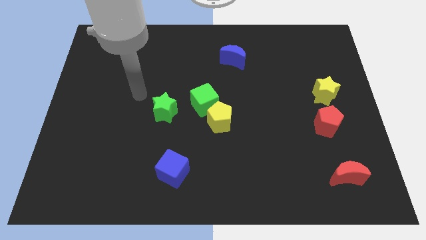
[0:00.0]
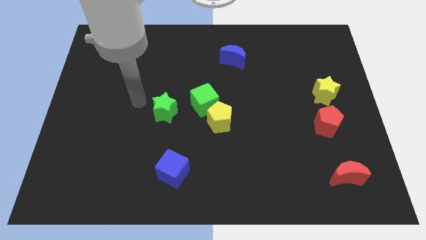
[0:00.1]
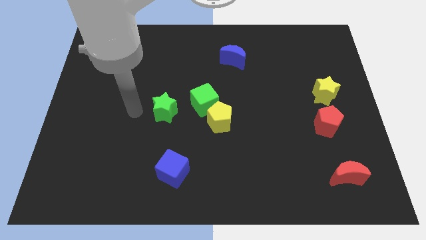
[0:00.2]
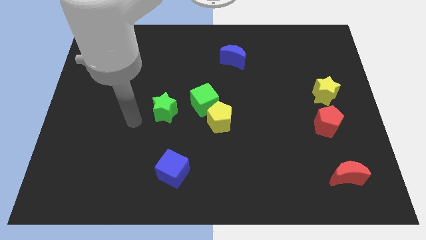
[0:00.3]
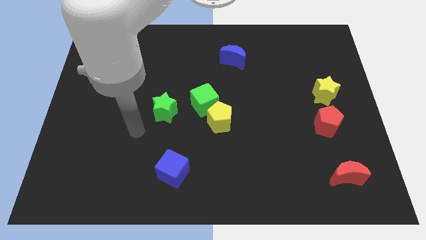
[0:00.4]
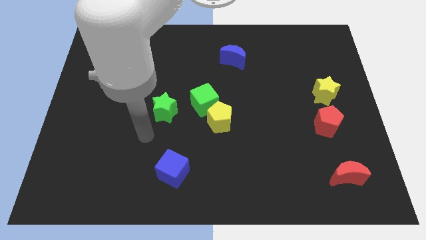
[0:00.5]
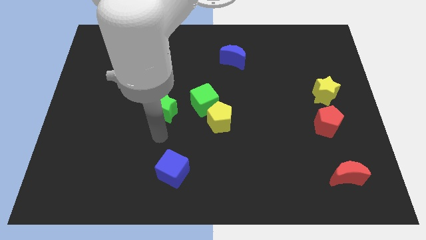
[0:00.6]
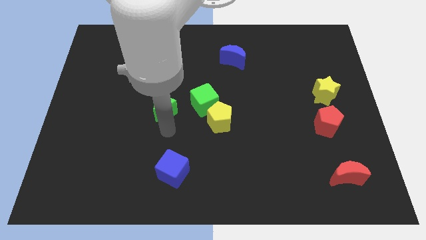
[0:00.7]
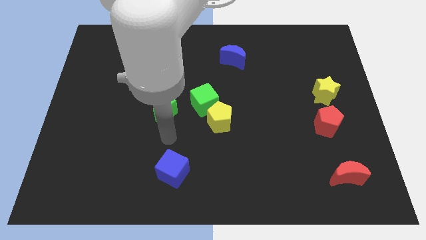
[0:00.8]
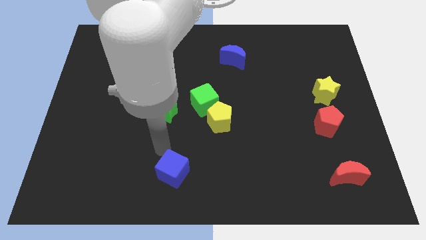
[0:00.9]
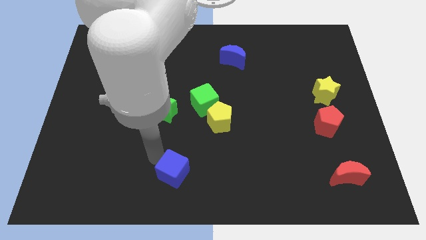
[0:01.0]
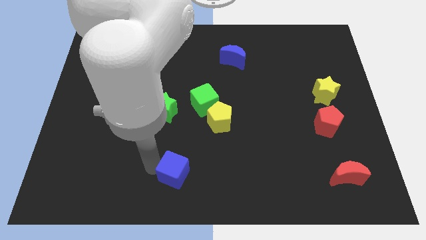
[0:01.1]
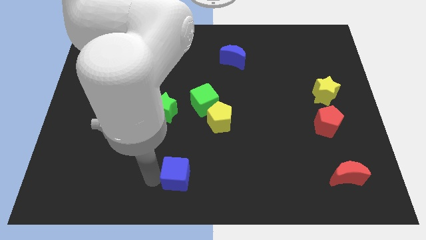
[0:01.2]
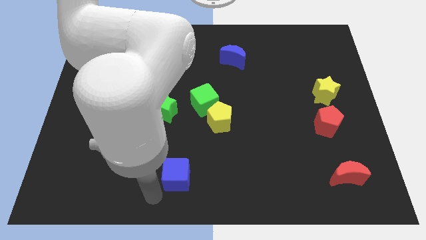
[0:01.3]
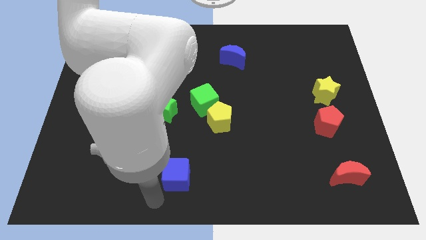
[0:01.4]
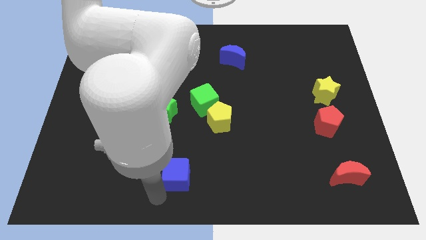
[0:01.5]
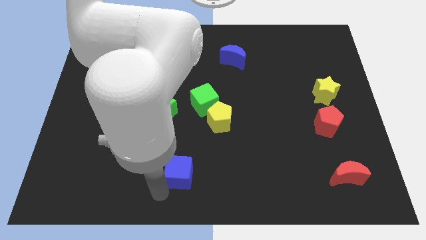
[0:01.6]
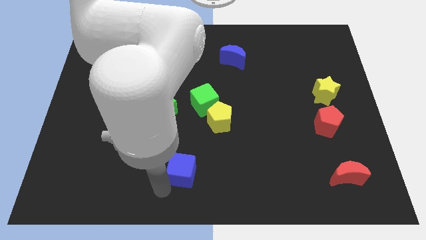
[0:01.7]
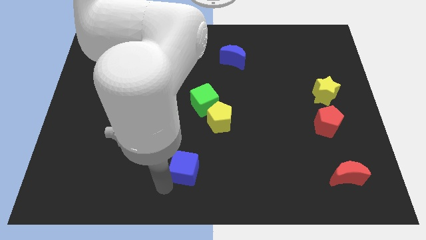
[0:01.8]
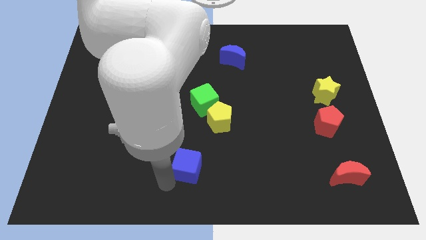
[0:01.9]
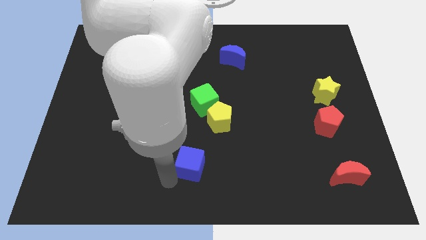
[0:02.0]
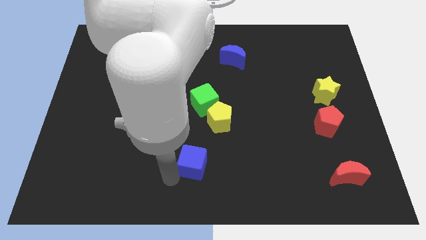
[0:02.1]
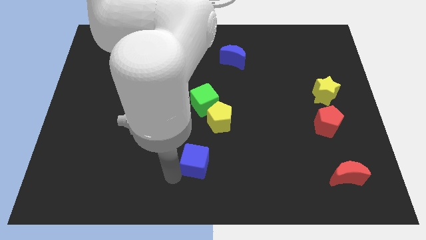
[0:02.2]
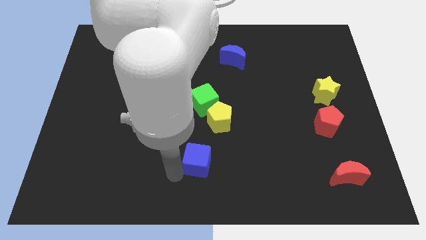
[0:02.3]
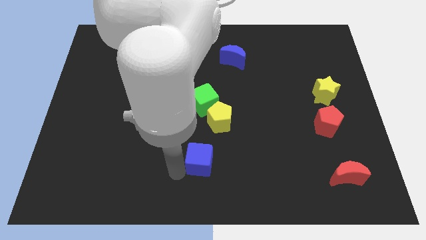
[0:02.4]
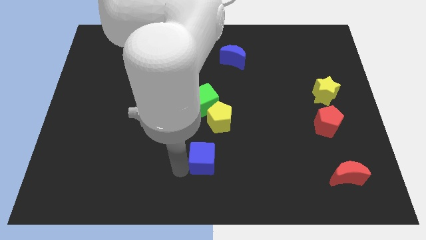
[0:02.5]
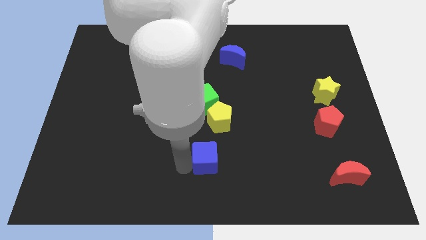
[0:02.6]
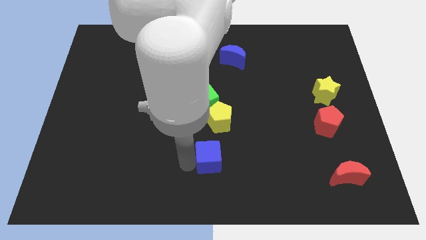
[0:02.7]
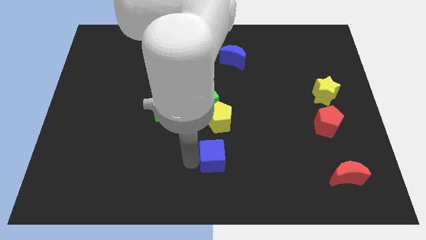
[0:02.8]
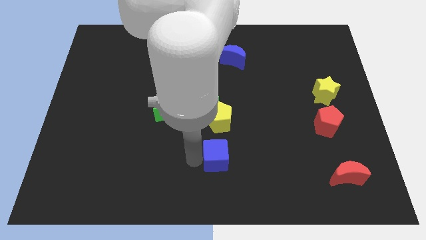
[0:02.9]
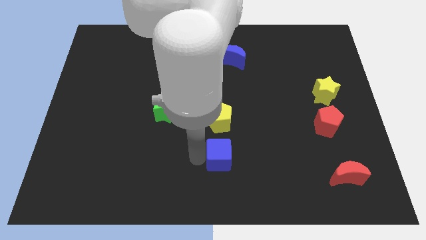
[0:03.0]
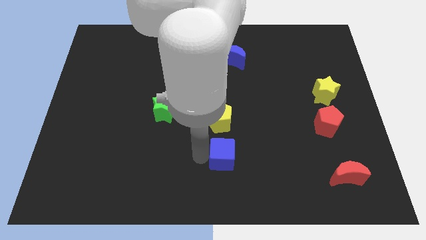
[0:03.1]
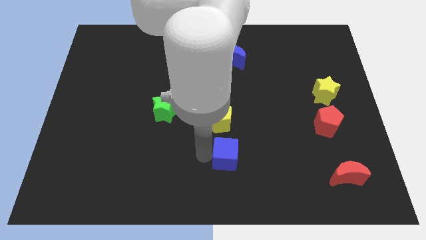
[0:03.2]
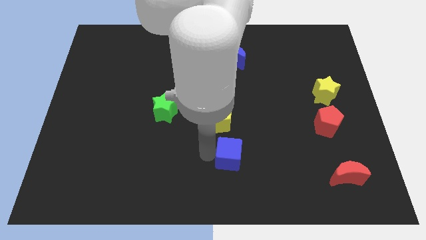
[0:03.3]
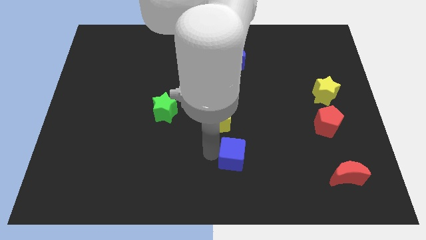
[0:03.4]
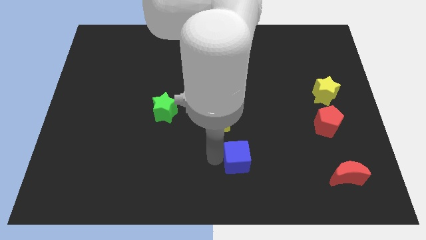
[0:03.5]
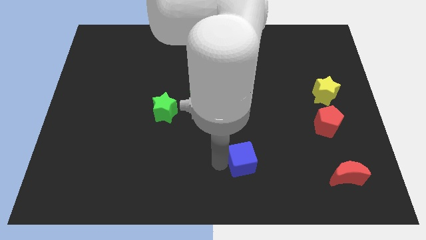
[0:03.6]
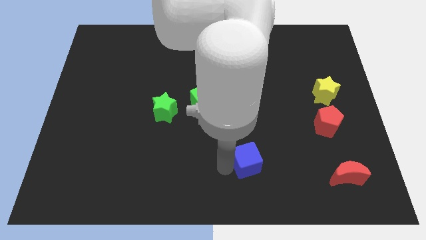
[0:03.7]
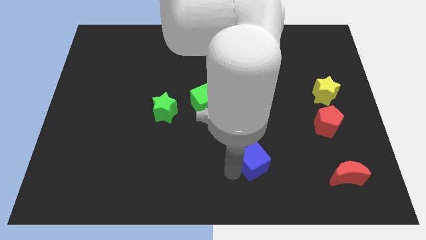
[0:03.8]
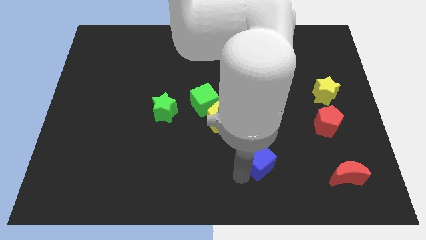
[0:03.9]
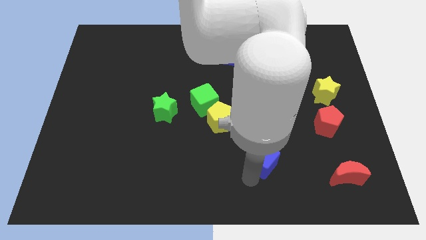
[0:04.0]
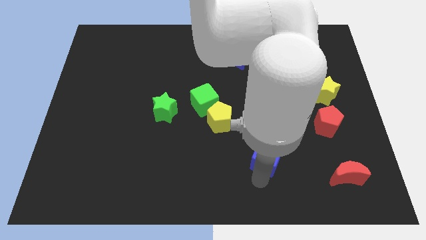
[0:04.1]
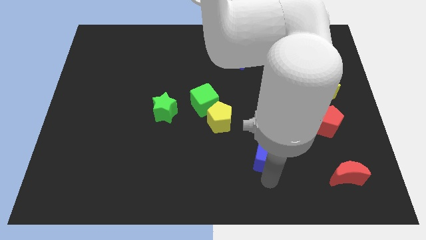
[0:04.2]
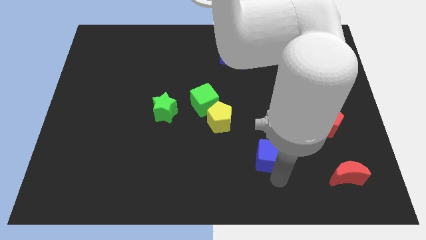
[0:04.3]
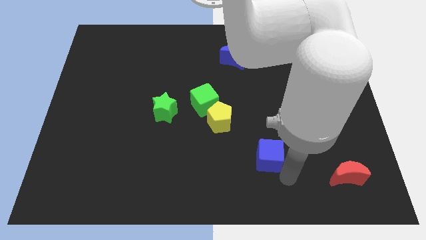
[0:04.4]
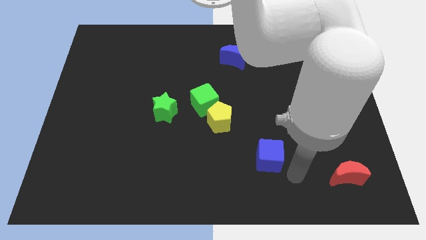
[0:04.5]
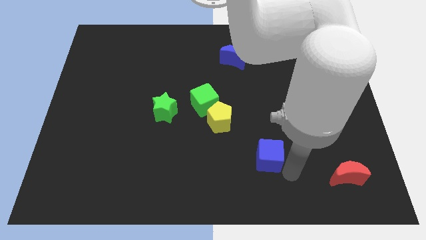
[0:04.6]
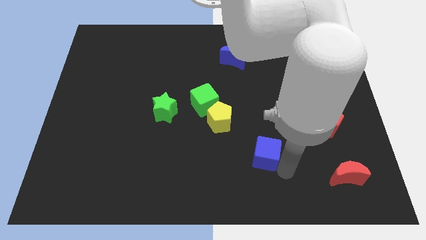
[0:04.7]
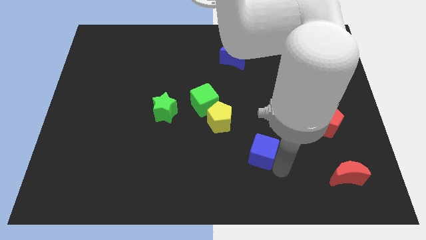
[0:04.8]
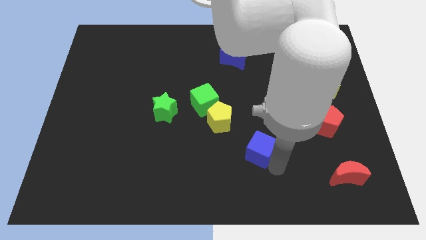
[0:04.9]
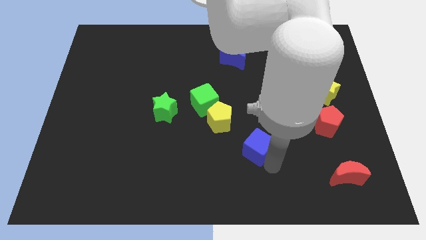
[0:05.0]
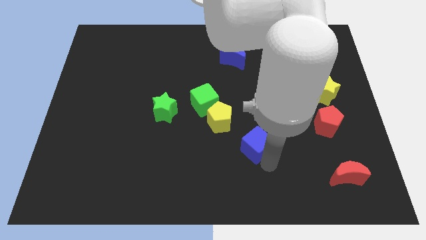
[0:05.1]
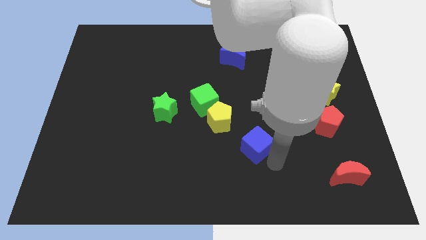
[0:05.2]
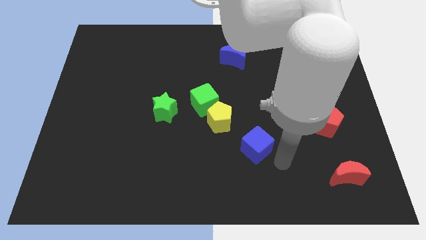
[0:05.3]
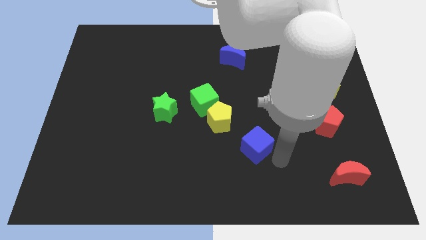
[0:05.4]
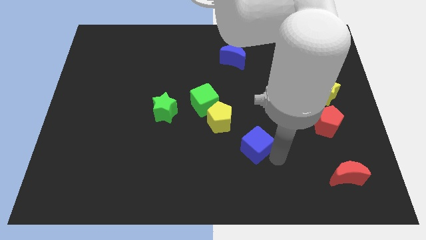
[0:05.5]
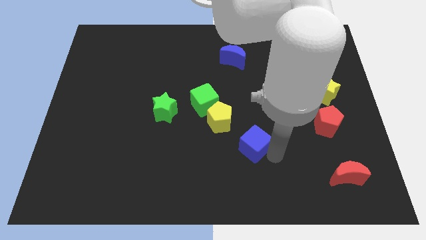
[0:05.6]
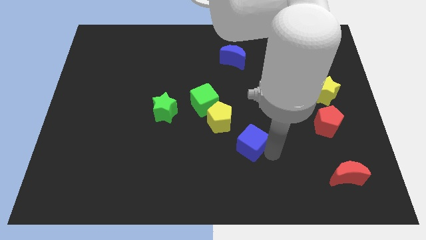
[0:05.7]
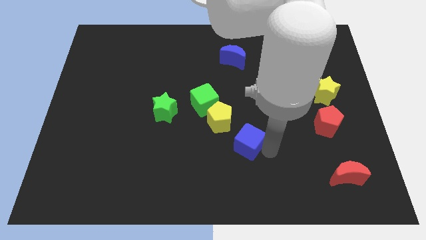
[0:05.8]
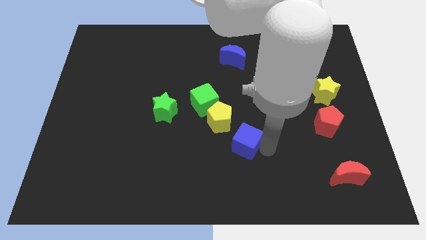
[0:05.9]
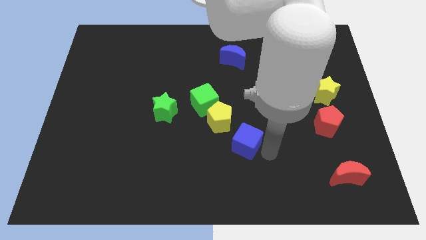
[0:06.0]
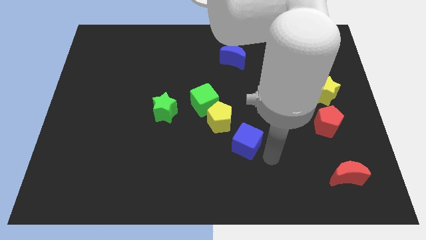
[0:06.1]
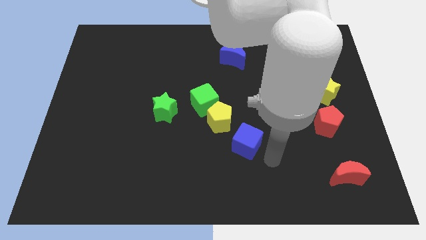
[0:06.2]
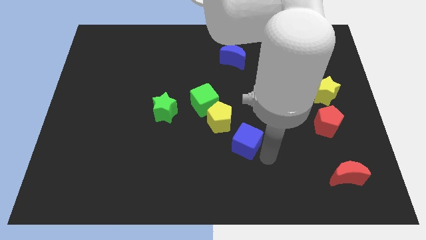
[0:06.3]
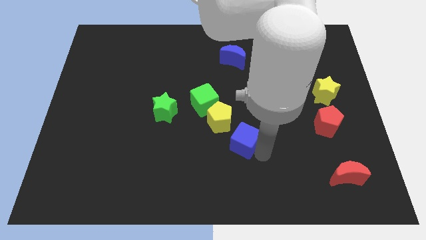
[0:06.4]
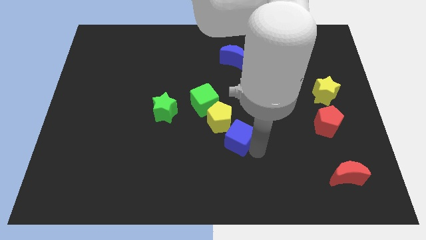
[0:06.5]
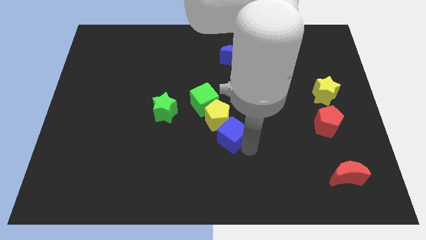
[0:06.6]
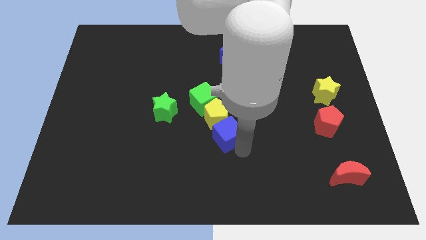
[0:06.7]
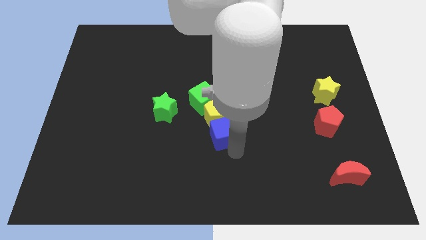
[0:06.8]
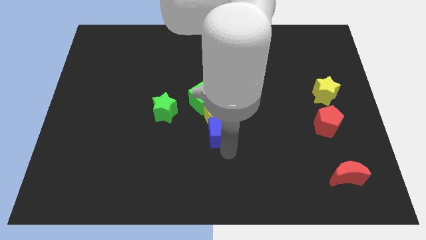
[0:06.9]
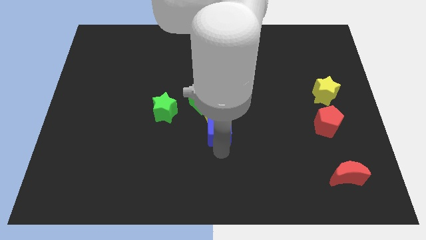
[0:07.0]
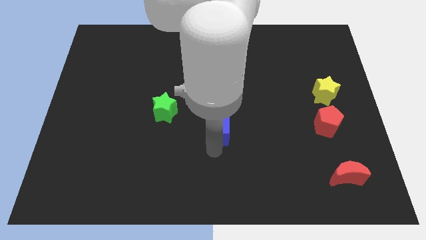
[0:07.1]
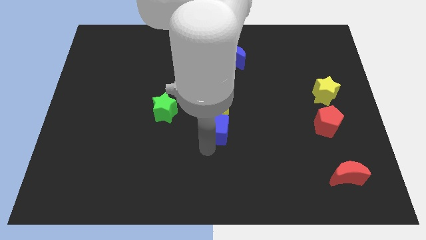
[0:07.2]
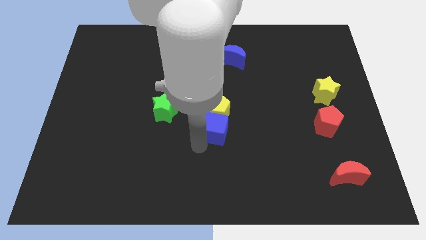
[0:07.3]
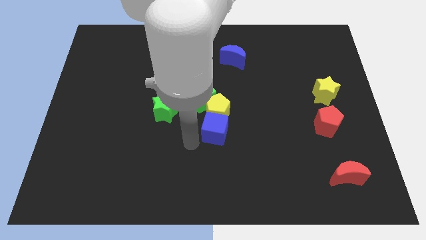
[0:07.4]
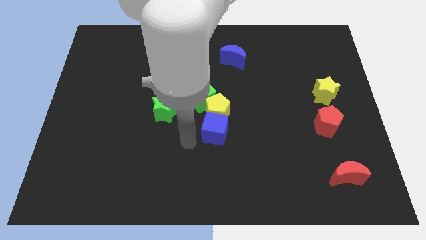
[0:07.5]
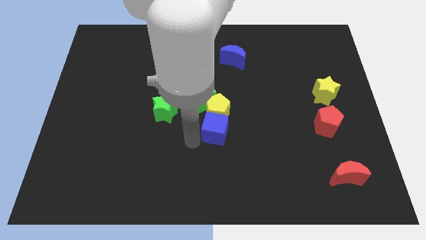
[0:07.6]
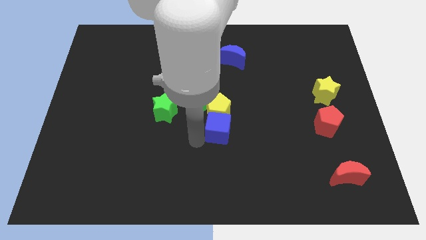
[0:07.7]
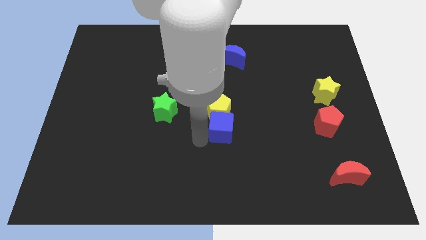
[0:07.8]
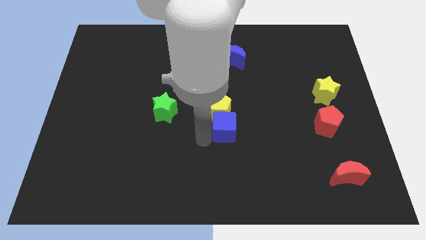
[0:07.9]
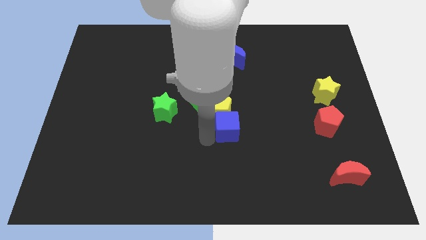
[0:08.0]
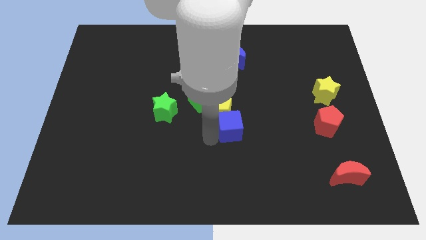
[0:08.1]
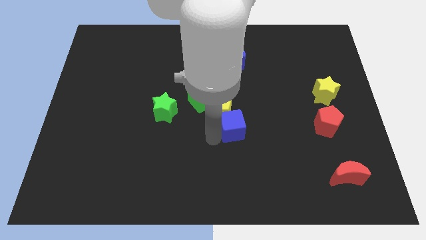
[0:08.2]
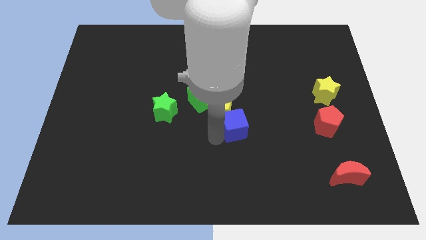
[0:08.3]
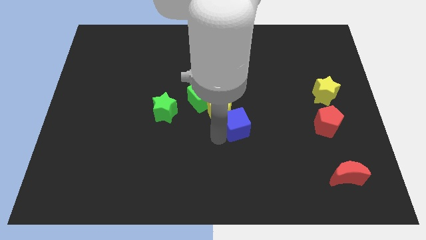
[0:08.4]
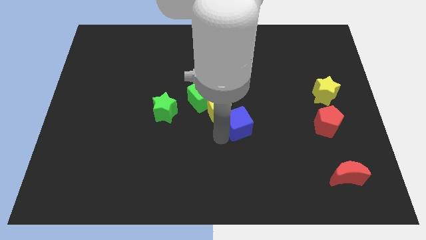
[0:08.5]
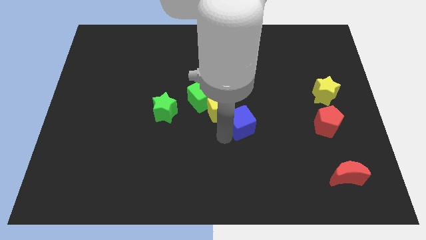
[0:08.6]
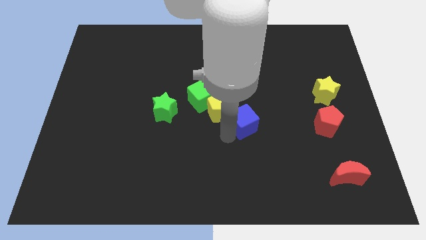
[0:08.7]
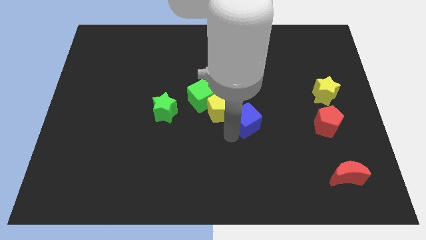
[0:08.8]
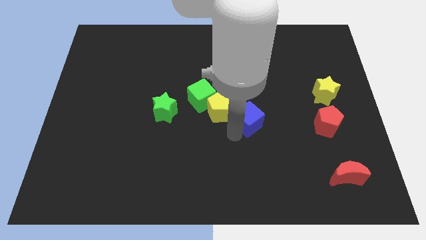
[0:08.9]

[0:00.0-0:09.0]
move the blue cube diagonally up and to the right
